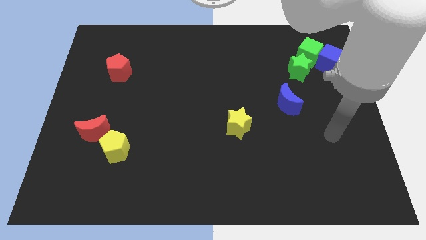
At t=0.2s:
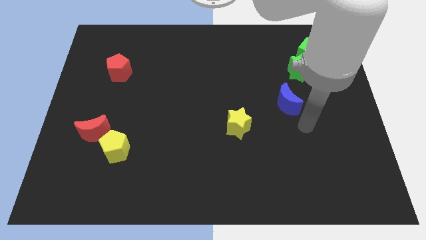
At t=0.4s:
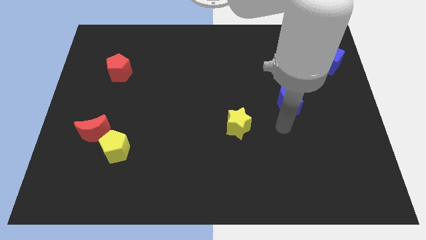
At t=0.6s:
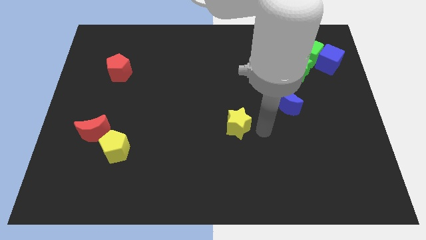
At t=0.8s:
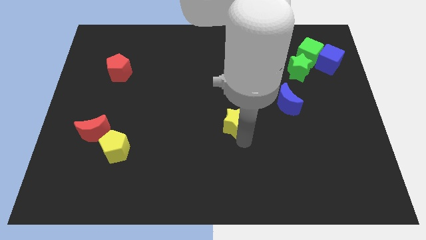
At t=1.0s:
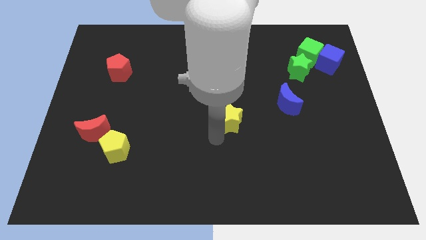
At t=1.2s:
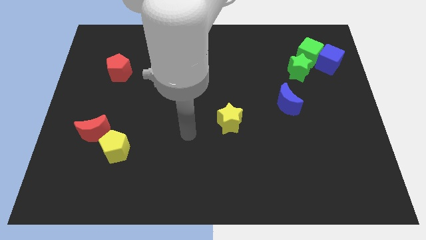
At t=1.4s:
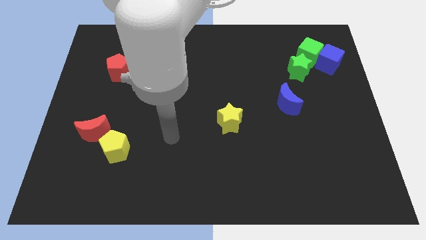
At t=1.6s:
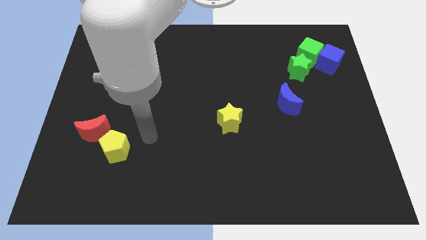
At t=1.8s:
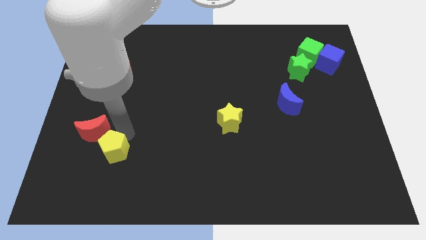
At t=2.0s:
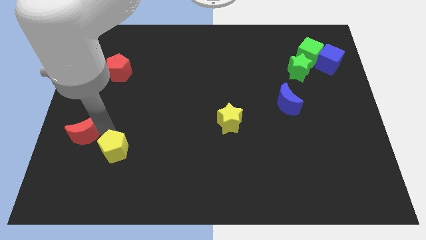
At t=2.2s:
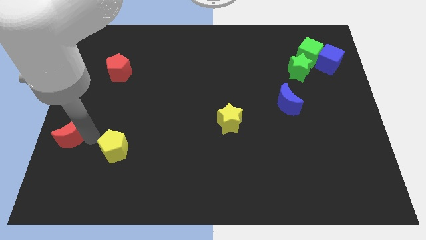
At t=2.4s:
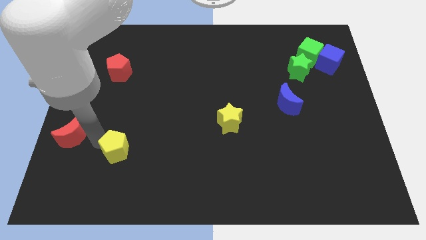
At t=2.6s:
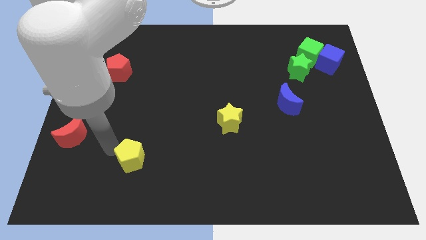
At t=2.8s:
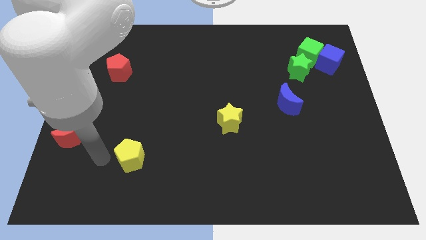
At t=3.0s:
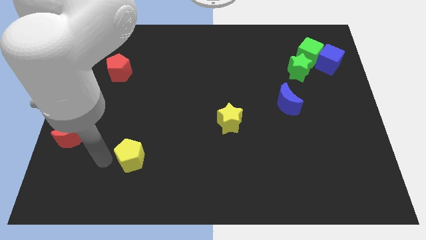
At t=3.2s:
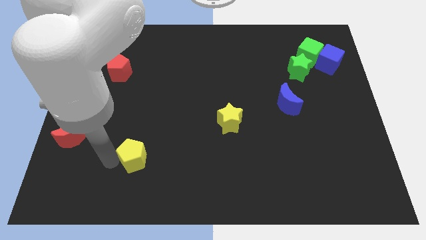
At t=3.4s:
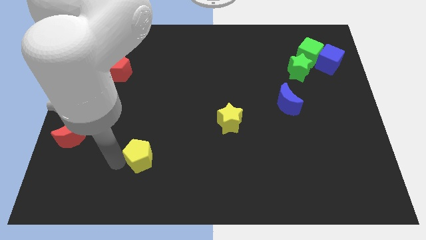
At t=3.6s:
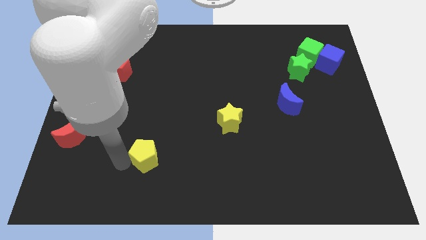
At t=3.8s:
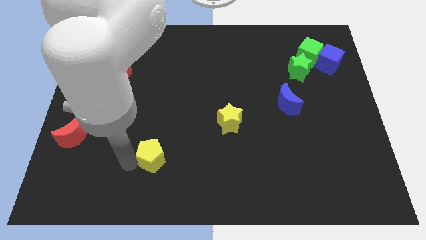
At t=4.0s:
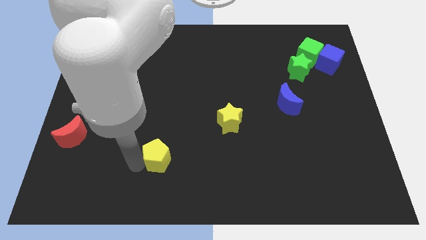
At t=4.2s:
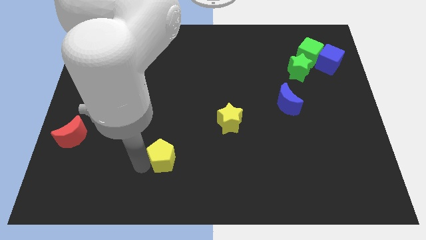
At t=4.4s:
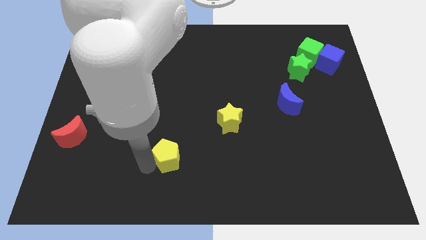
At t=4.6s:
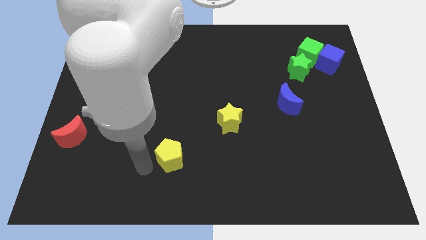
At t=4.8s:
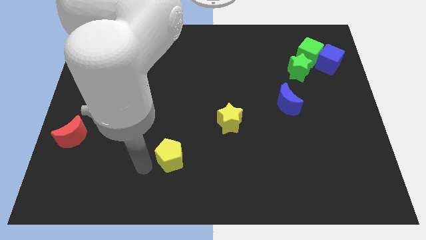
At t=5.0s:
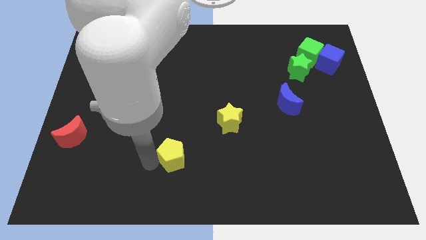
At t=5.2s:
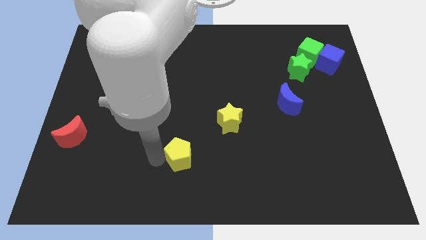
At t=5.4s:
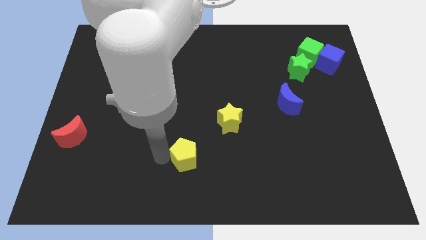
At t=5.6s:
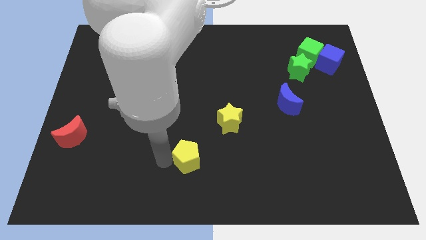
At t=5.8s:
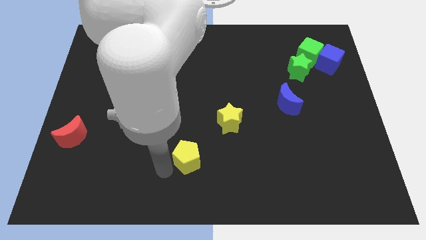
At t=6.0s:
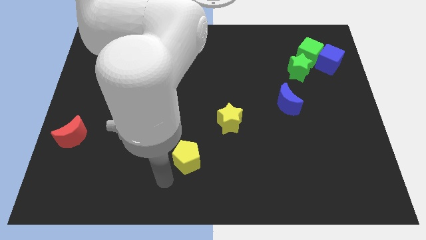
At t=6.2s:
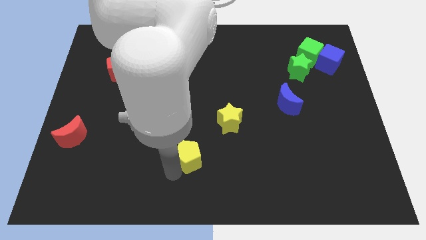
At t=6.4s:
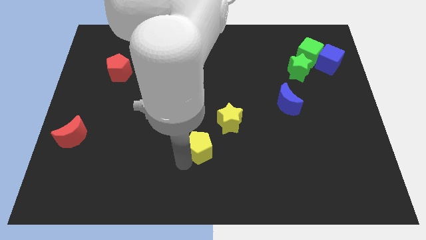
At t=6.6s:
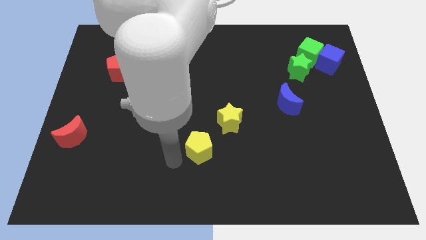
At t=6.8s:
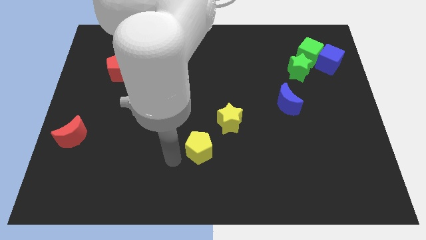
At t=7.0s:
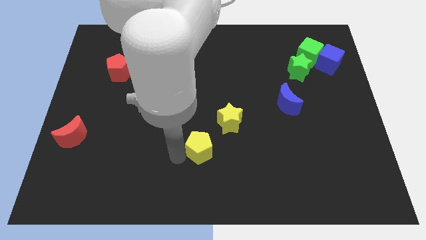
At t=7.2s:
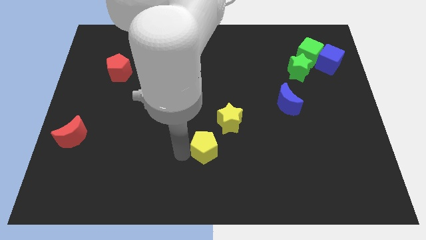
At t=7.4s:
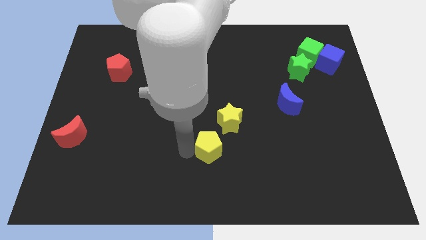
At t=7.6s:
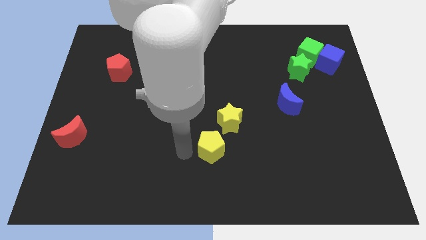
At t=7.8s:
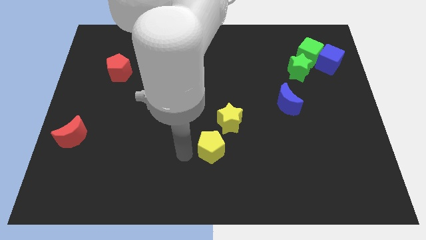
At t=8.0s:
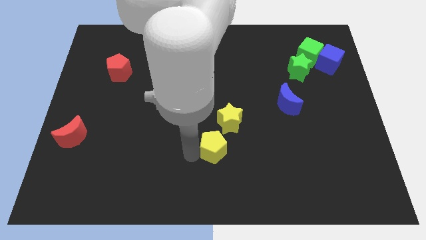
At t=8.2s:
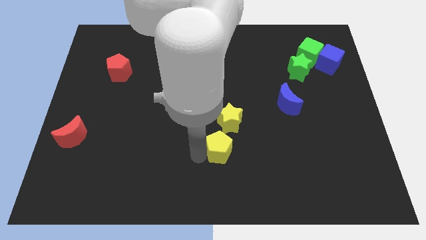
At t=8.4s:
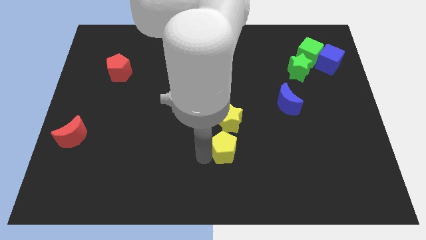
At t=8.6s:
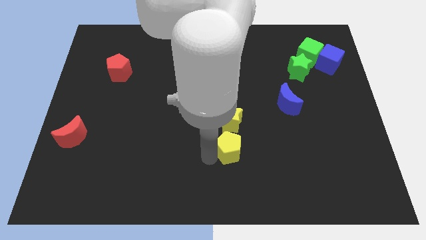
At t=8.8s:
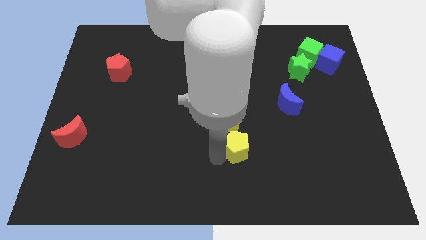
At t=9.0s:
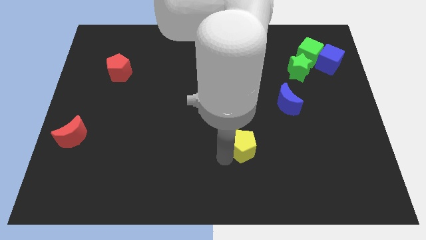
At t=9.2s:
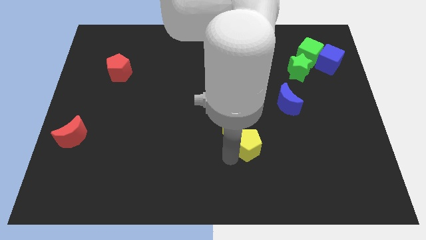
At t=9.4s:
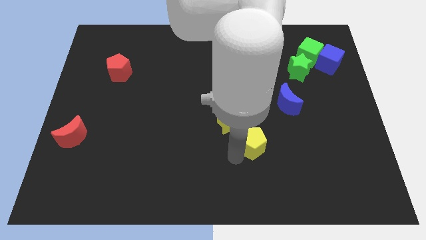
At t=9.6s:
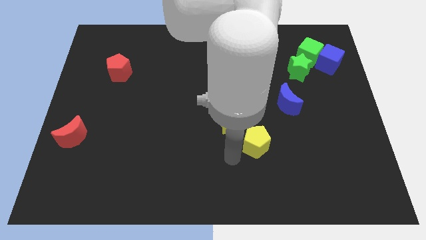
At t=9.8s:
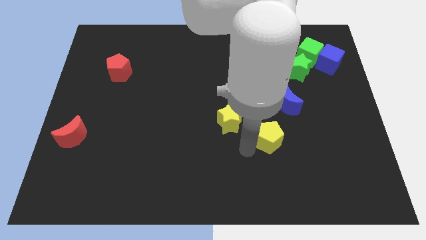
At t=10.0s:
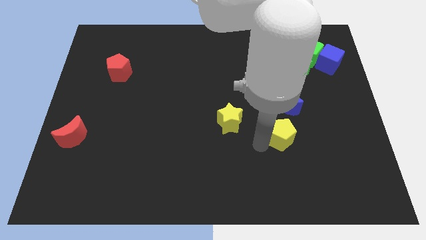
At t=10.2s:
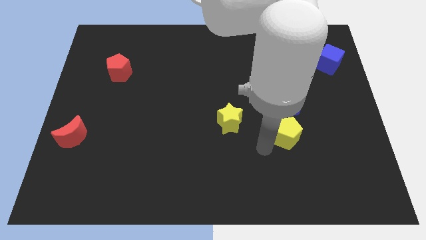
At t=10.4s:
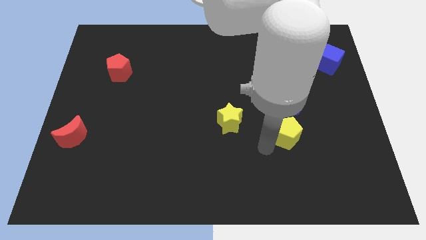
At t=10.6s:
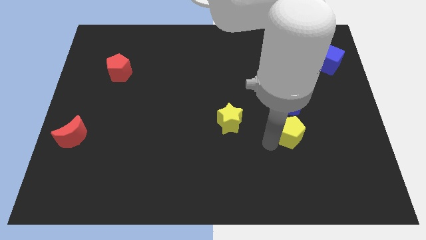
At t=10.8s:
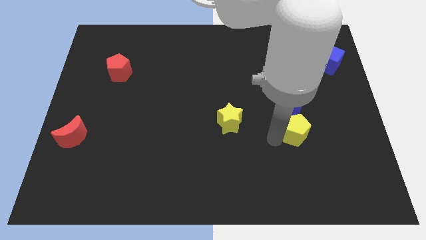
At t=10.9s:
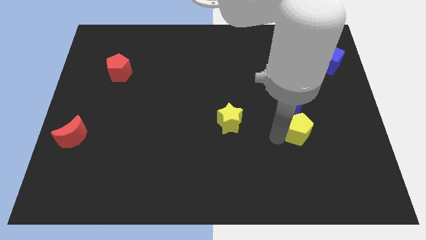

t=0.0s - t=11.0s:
push the yellow pentagon diagonally down and to the right of the blue moon

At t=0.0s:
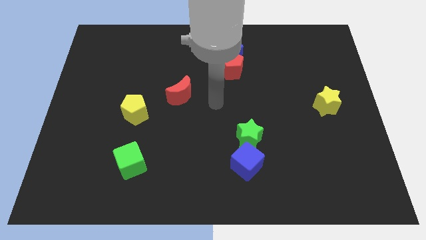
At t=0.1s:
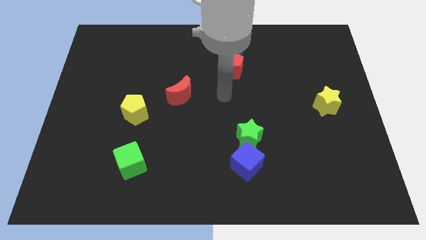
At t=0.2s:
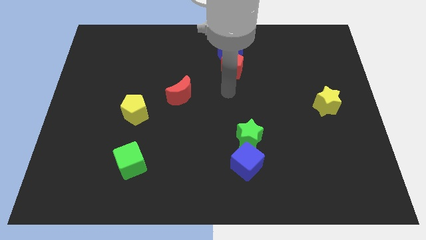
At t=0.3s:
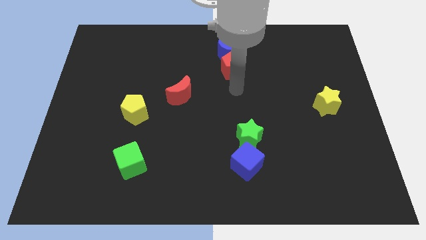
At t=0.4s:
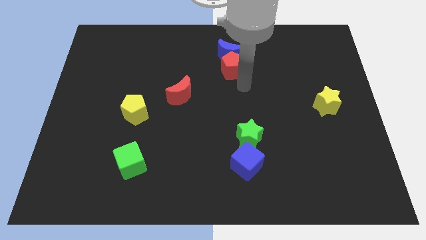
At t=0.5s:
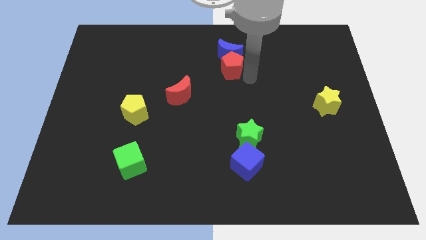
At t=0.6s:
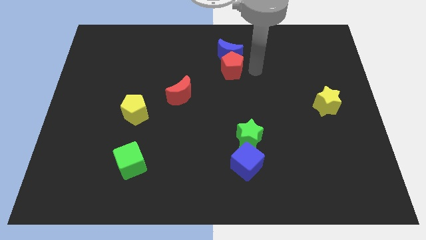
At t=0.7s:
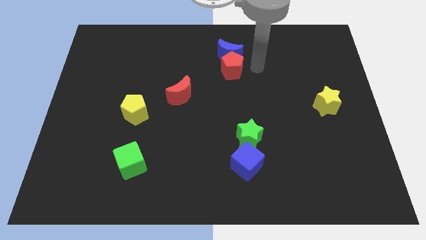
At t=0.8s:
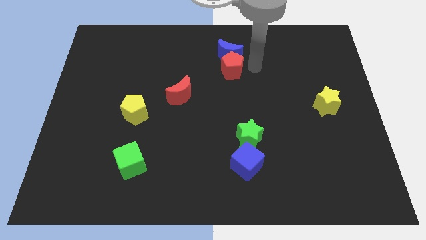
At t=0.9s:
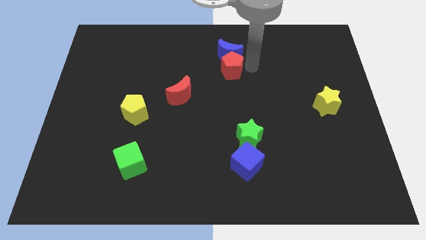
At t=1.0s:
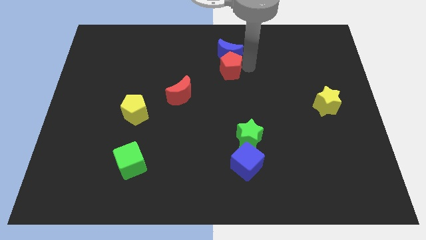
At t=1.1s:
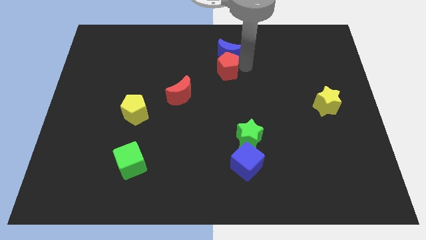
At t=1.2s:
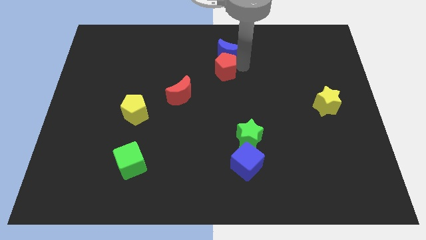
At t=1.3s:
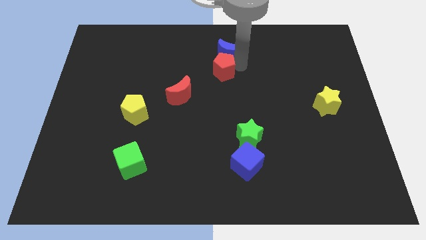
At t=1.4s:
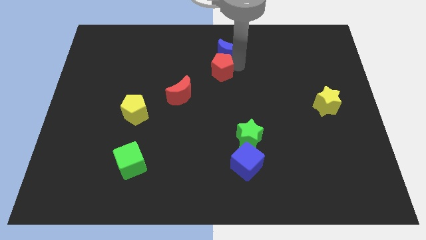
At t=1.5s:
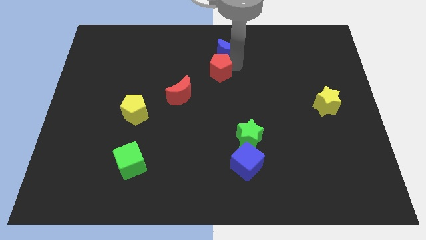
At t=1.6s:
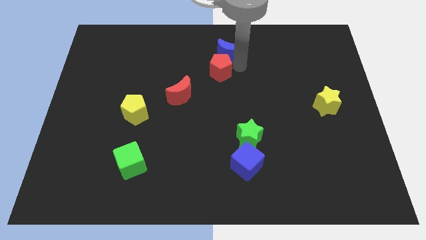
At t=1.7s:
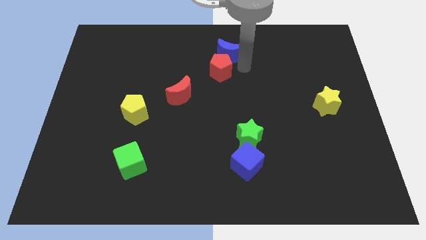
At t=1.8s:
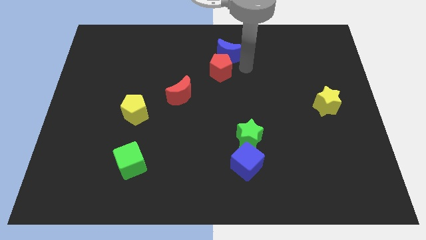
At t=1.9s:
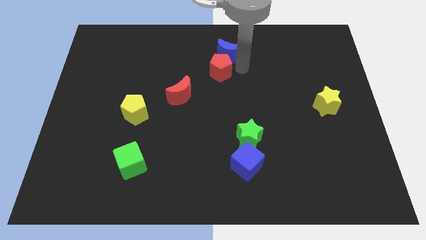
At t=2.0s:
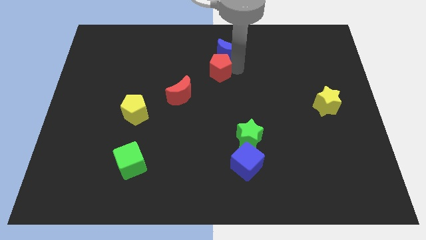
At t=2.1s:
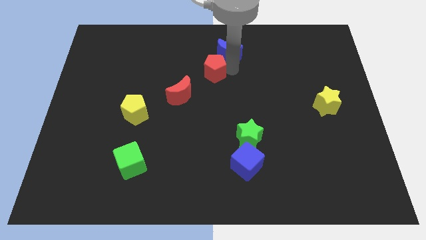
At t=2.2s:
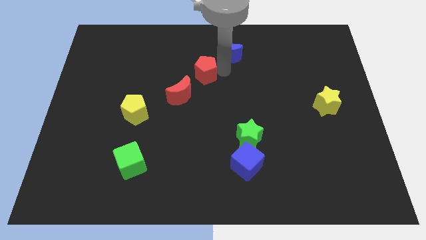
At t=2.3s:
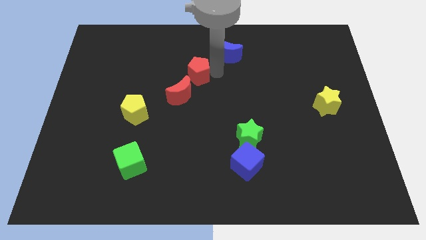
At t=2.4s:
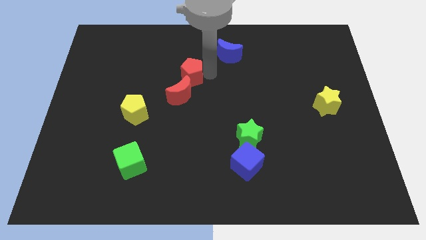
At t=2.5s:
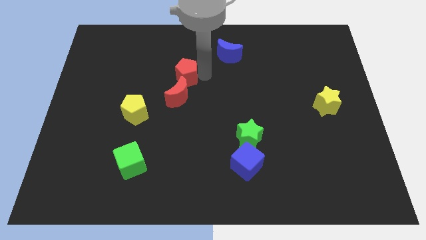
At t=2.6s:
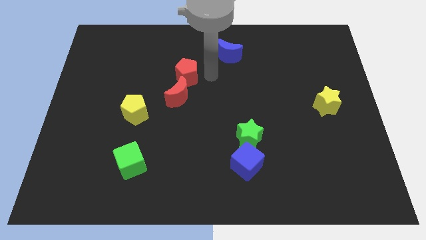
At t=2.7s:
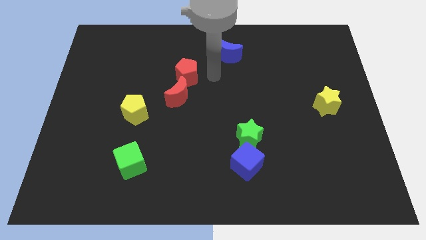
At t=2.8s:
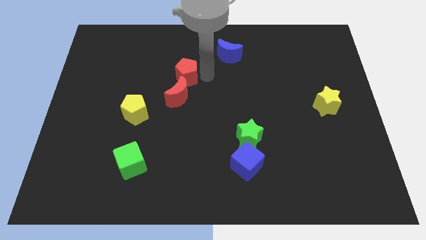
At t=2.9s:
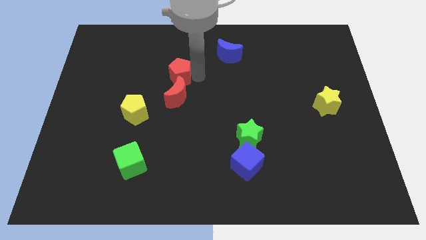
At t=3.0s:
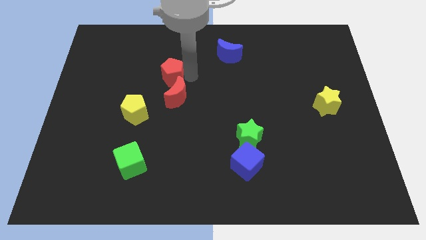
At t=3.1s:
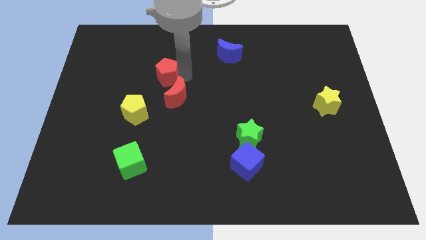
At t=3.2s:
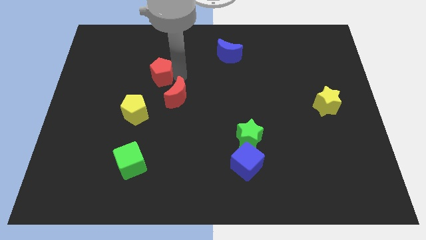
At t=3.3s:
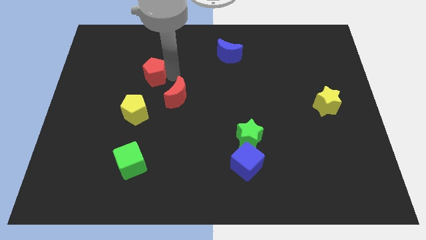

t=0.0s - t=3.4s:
put the red pentagon to the top side of the yellow pentagon
